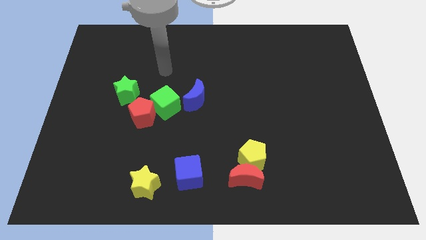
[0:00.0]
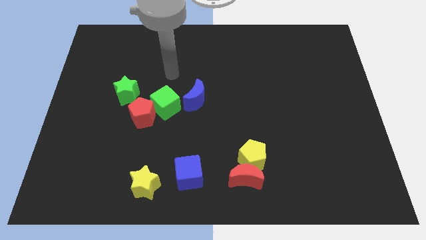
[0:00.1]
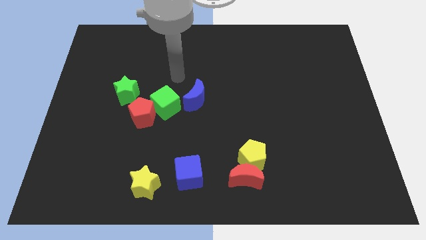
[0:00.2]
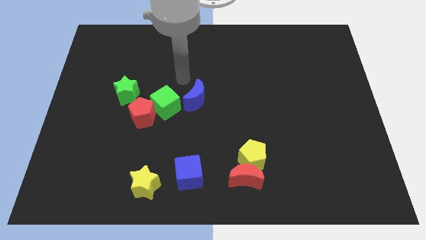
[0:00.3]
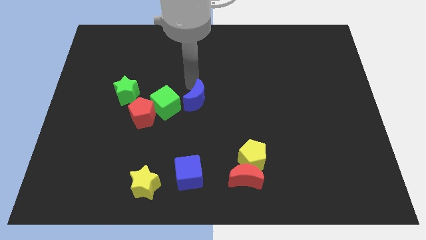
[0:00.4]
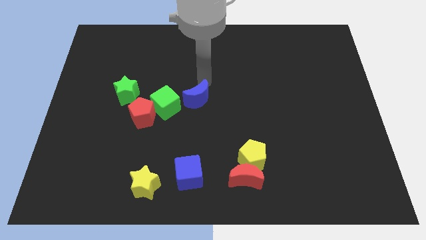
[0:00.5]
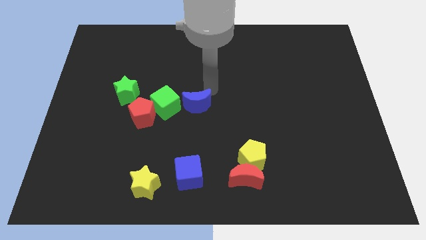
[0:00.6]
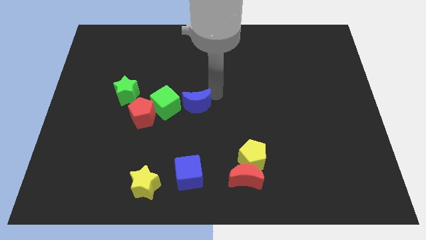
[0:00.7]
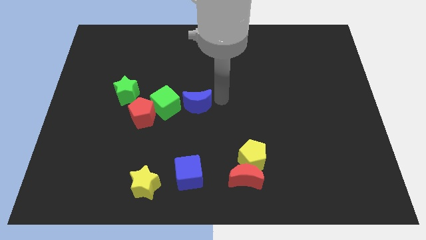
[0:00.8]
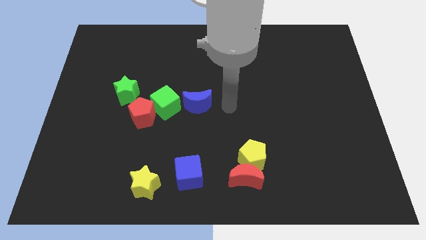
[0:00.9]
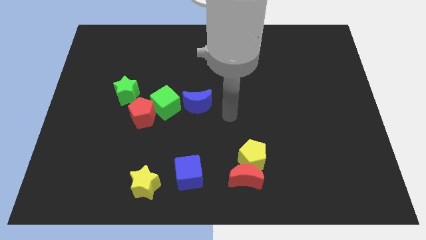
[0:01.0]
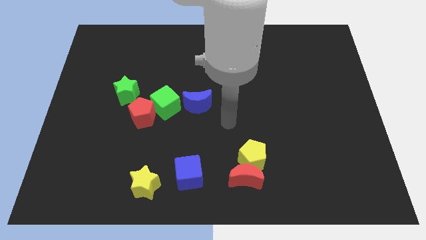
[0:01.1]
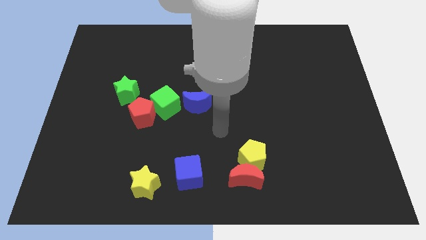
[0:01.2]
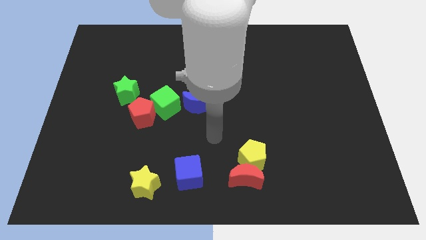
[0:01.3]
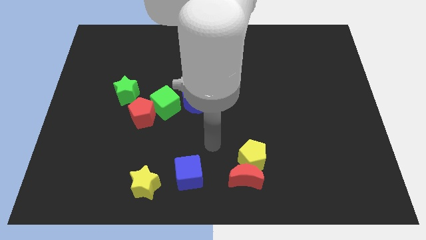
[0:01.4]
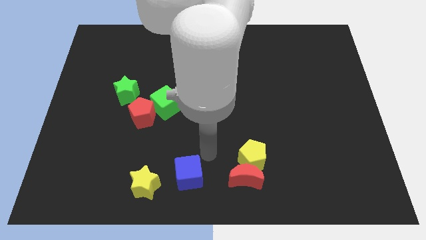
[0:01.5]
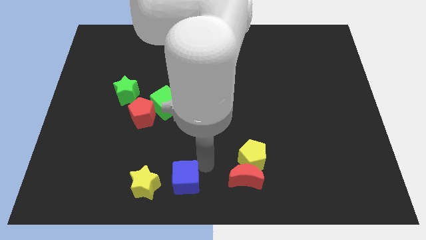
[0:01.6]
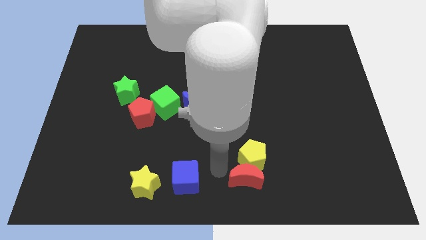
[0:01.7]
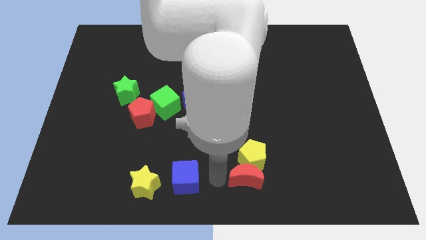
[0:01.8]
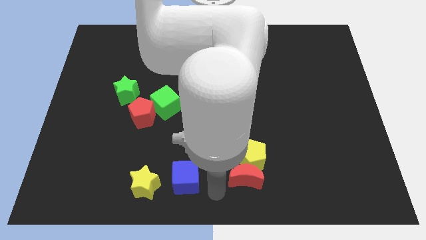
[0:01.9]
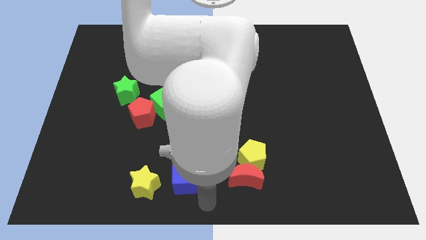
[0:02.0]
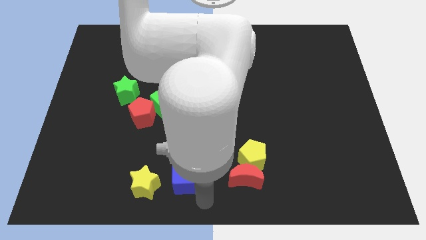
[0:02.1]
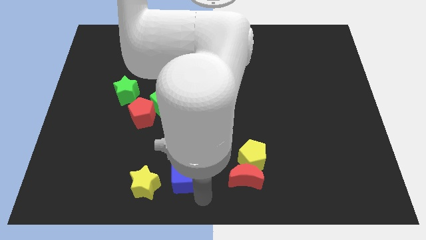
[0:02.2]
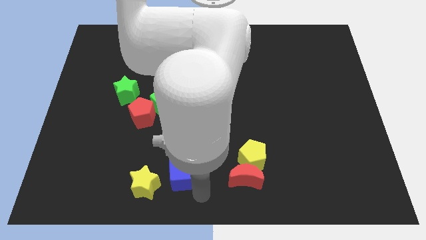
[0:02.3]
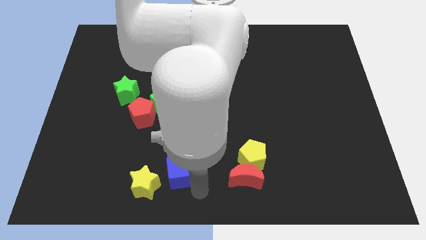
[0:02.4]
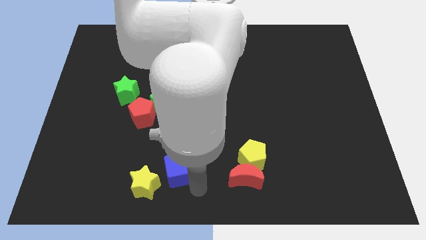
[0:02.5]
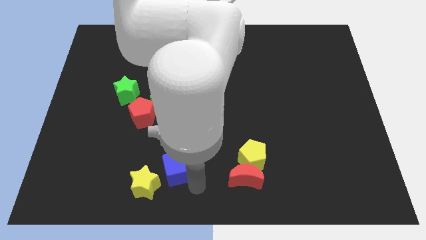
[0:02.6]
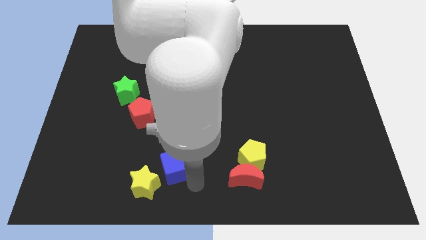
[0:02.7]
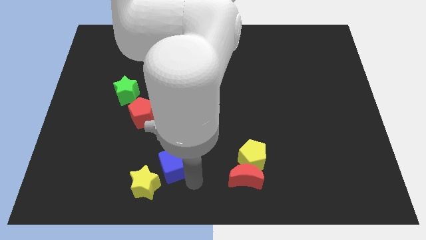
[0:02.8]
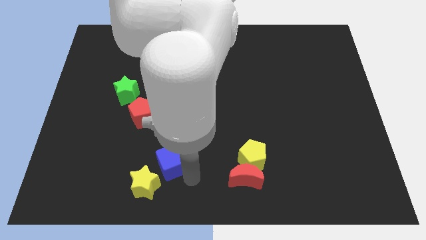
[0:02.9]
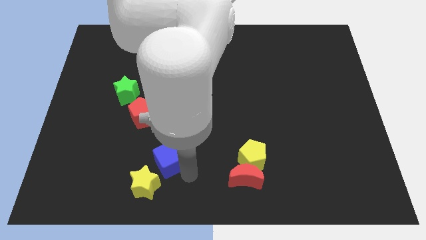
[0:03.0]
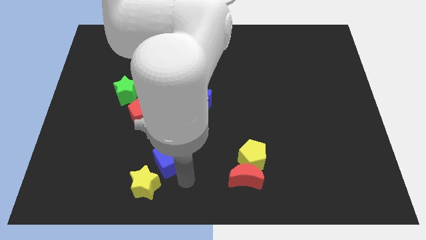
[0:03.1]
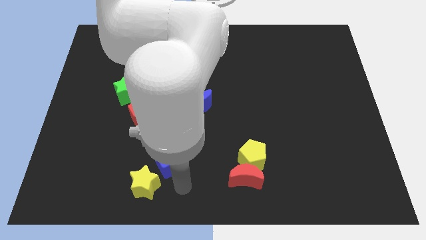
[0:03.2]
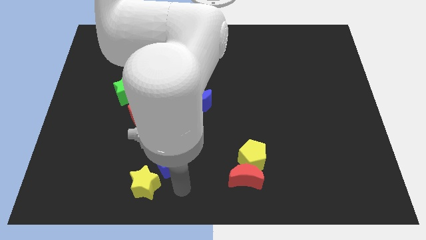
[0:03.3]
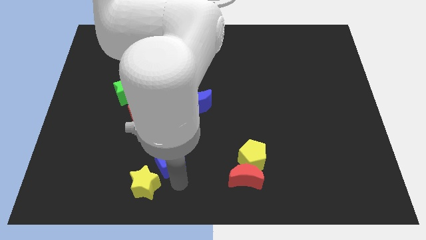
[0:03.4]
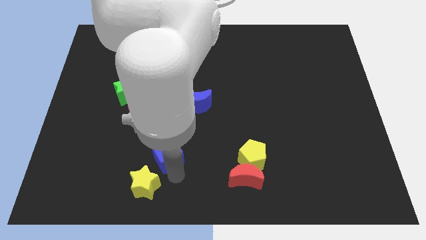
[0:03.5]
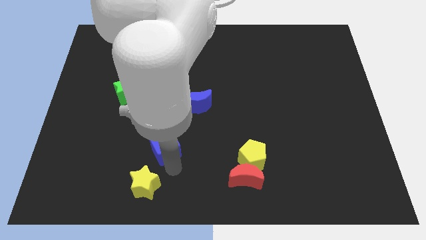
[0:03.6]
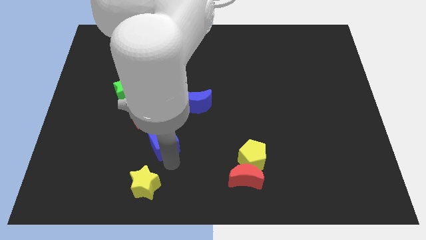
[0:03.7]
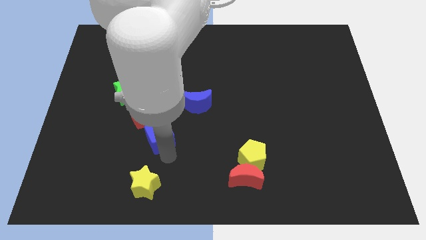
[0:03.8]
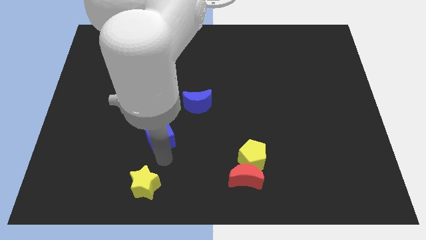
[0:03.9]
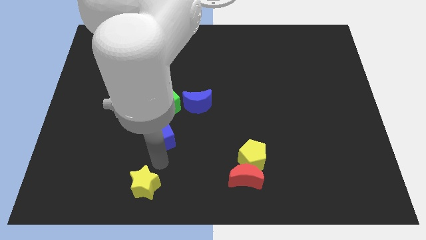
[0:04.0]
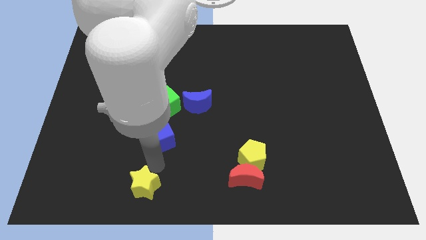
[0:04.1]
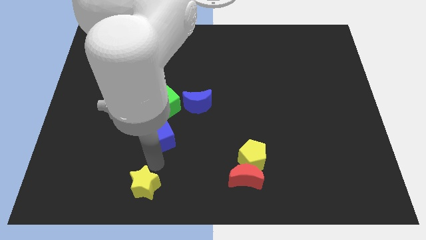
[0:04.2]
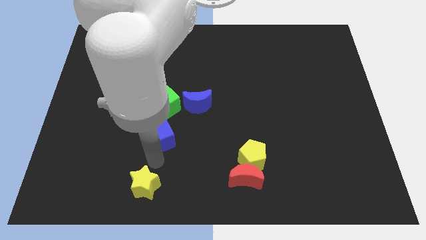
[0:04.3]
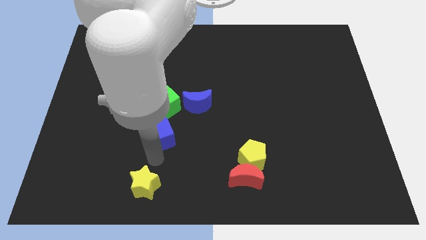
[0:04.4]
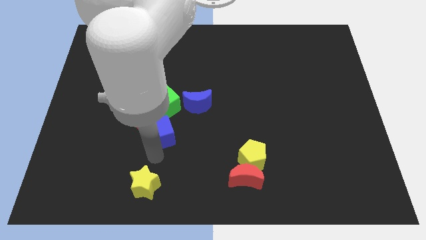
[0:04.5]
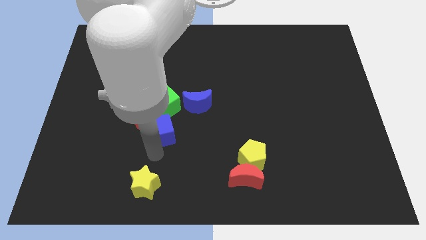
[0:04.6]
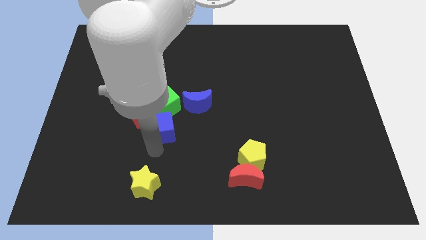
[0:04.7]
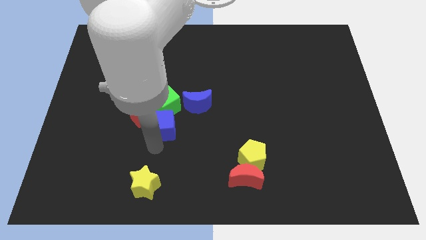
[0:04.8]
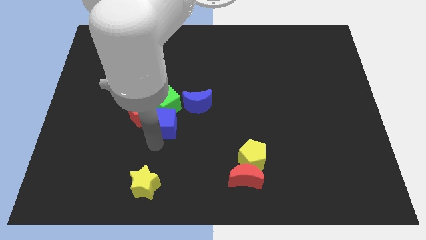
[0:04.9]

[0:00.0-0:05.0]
slide the blue cube towards the green cube

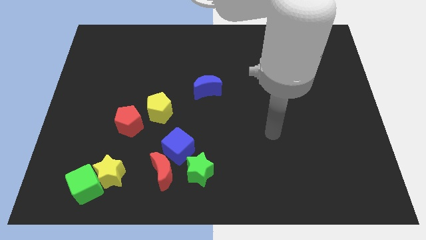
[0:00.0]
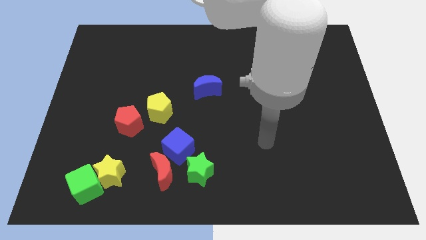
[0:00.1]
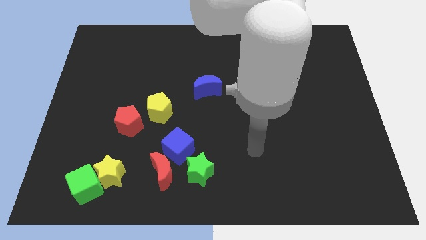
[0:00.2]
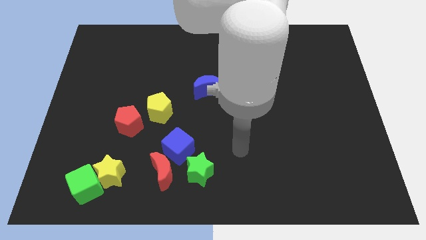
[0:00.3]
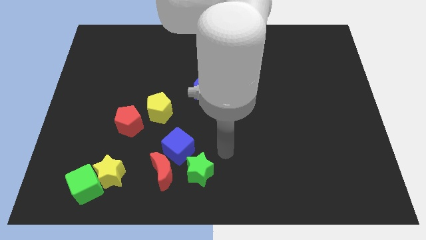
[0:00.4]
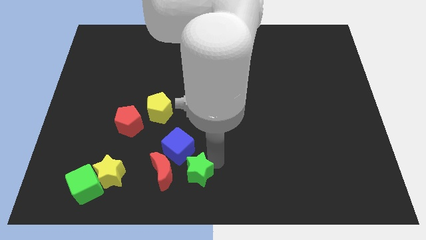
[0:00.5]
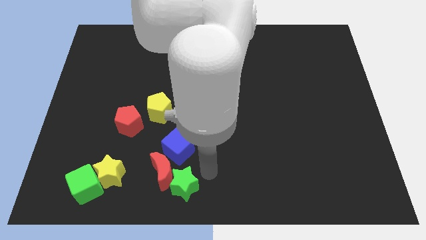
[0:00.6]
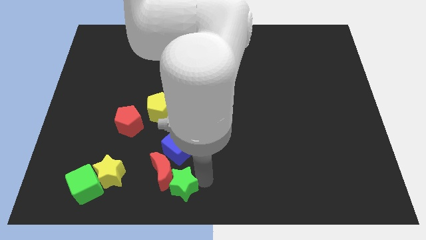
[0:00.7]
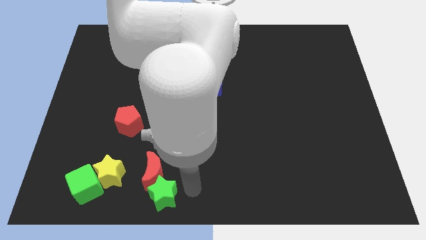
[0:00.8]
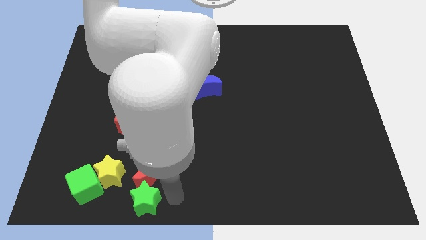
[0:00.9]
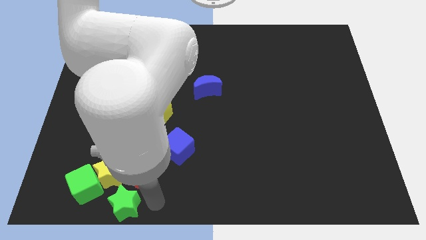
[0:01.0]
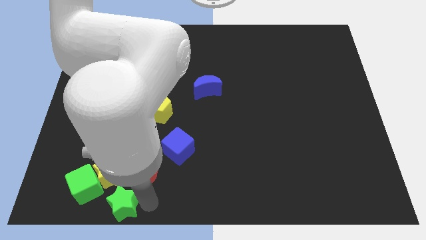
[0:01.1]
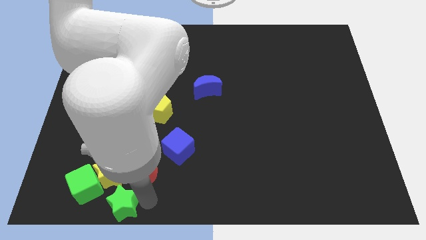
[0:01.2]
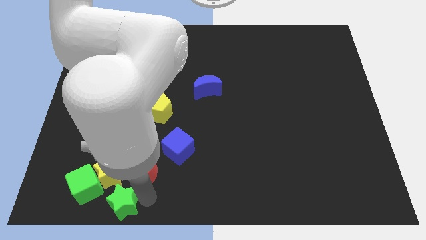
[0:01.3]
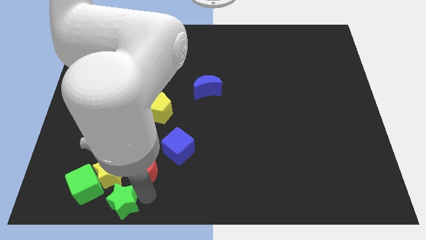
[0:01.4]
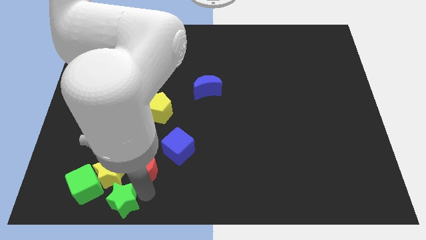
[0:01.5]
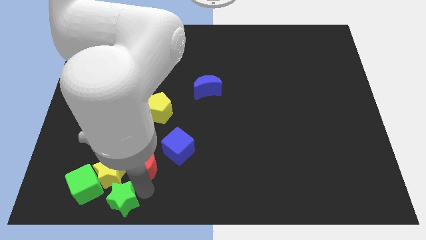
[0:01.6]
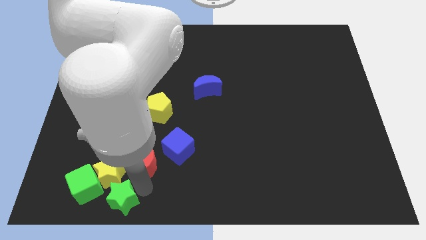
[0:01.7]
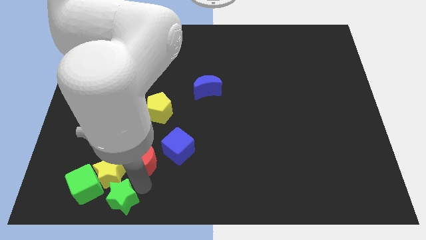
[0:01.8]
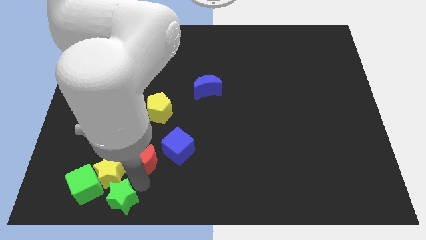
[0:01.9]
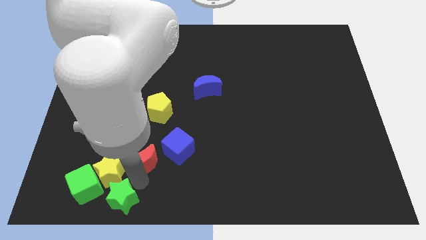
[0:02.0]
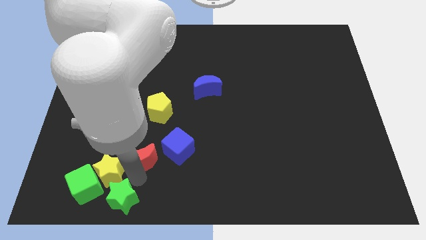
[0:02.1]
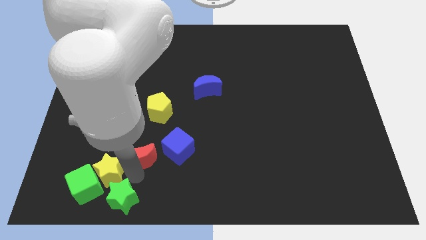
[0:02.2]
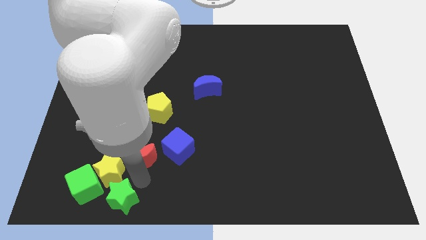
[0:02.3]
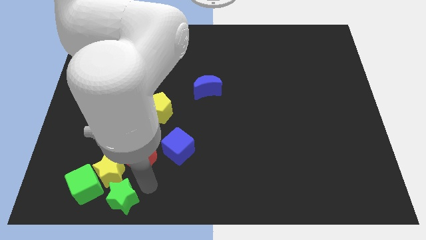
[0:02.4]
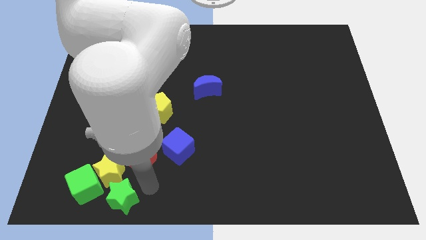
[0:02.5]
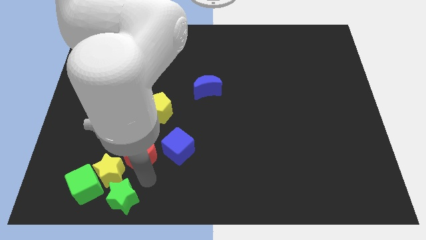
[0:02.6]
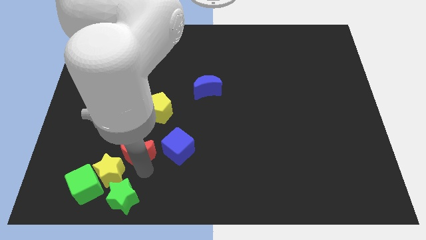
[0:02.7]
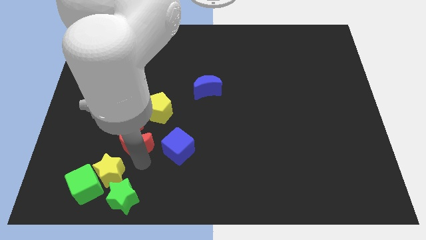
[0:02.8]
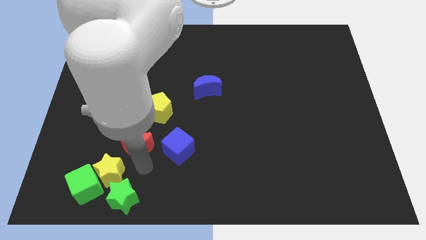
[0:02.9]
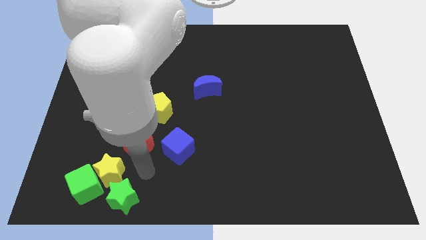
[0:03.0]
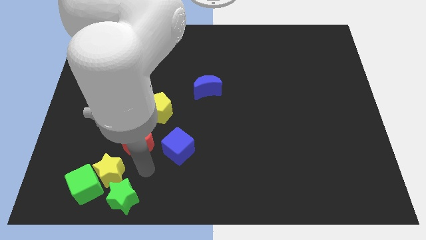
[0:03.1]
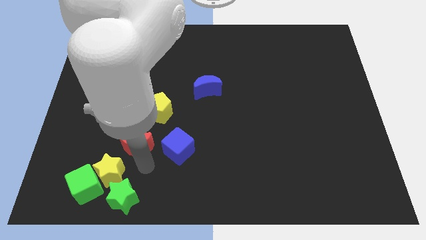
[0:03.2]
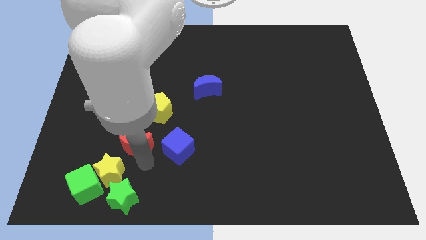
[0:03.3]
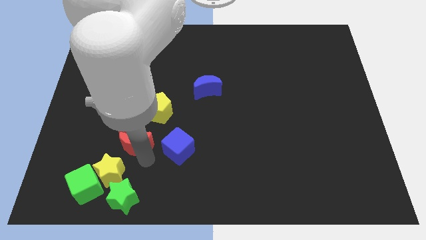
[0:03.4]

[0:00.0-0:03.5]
slide the red moon towards the red pentagon

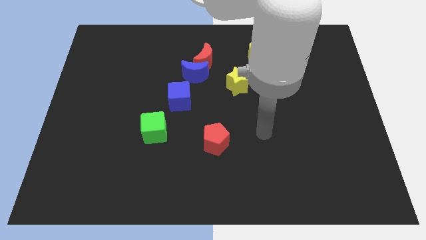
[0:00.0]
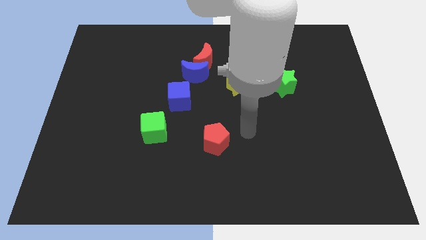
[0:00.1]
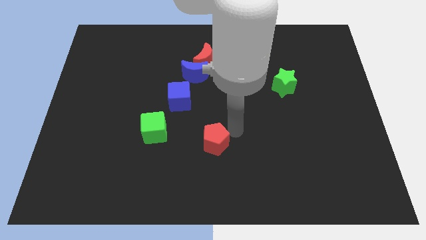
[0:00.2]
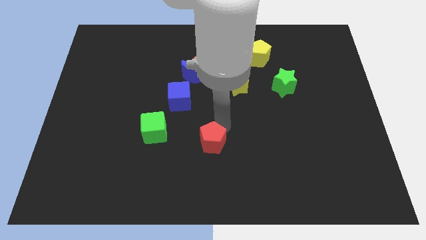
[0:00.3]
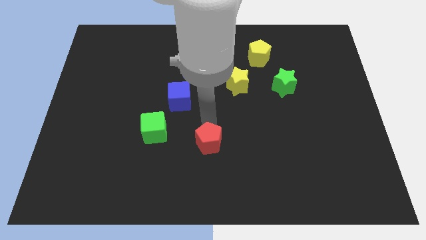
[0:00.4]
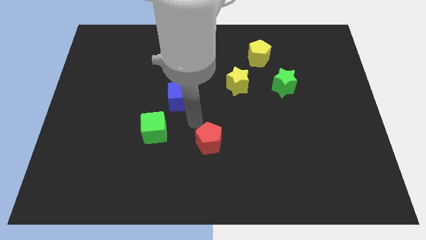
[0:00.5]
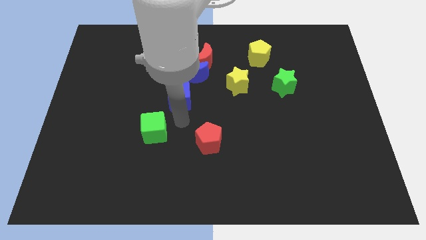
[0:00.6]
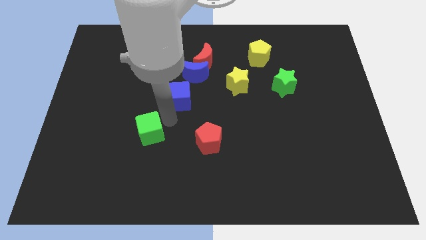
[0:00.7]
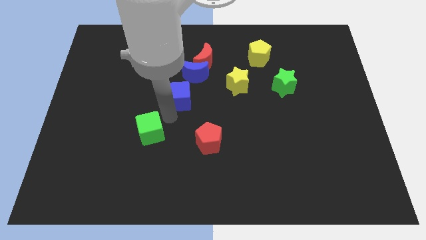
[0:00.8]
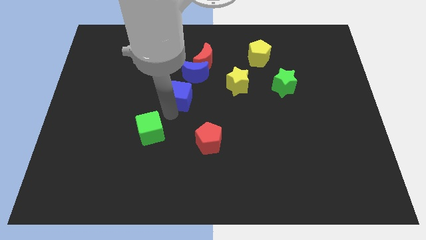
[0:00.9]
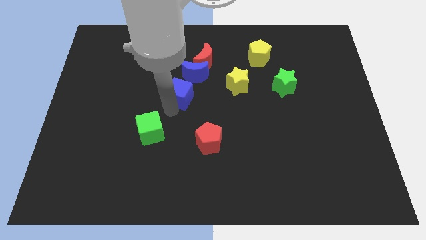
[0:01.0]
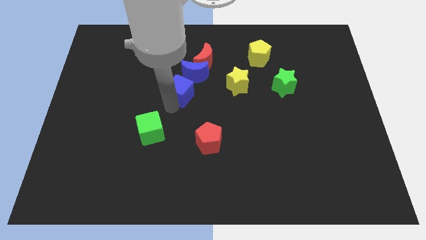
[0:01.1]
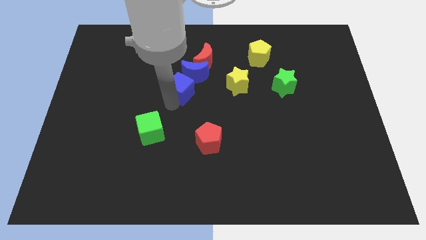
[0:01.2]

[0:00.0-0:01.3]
move the blue cube close to the blue moon
